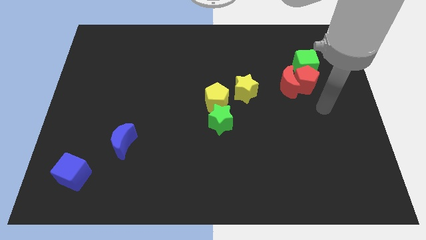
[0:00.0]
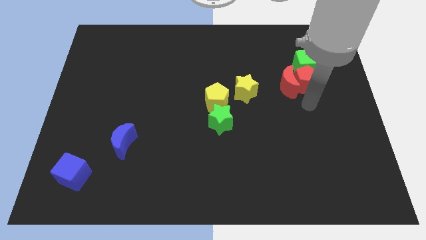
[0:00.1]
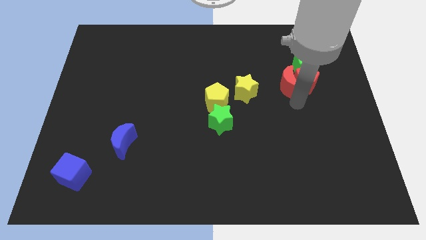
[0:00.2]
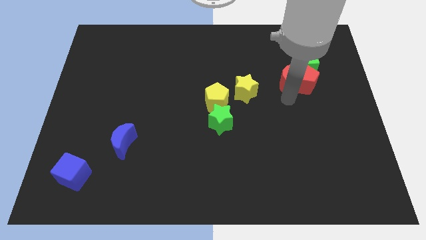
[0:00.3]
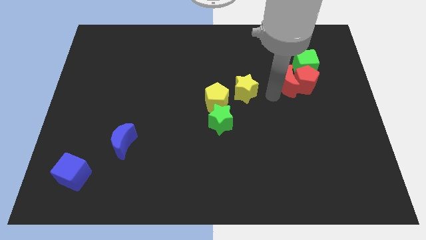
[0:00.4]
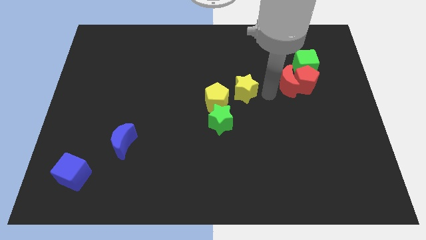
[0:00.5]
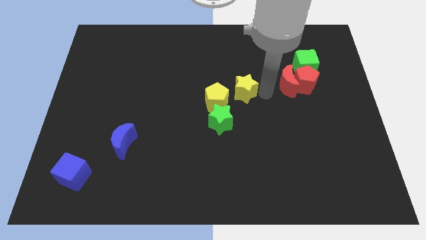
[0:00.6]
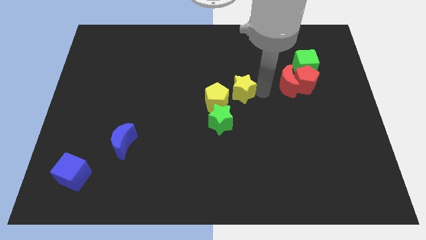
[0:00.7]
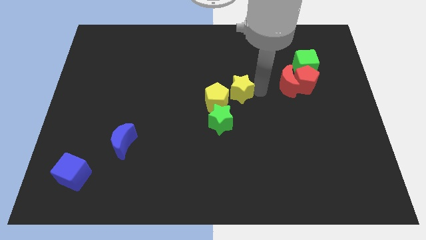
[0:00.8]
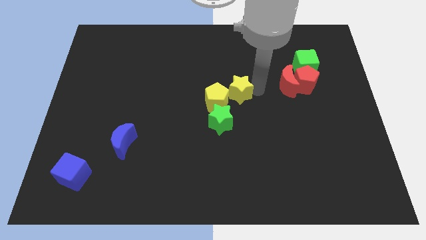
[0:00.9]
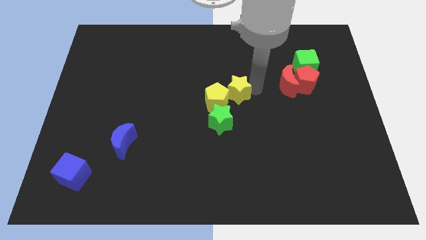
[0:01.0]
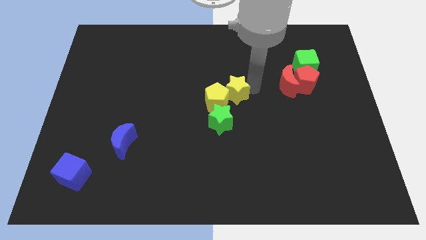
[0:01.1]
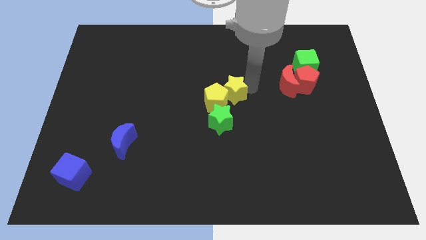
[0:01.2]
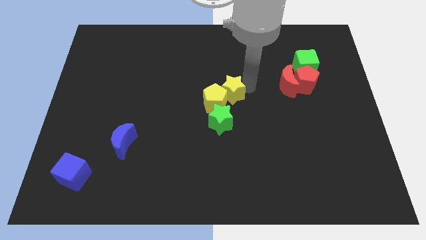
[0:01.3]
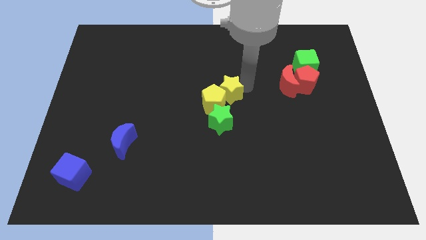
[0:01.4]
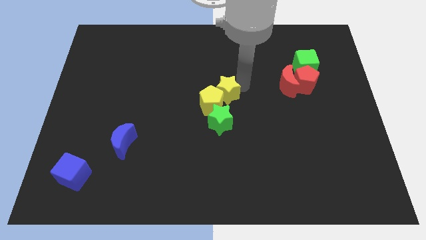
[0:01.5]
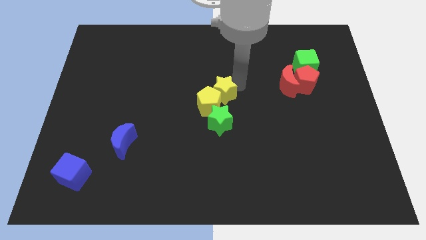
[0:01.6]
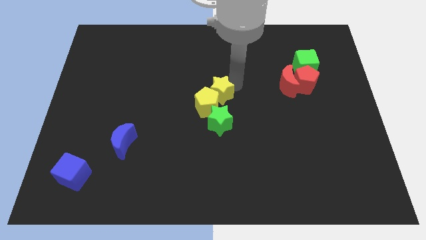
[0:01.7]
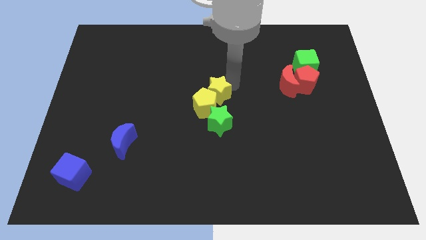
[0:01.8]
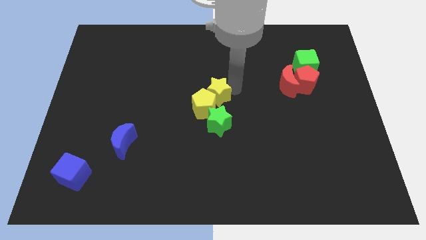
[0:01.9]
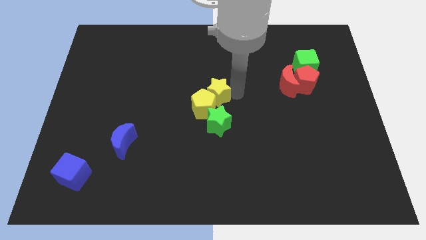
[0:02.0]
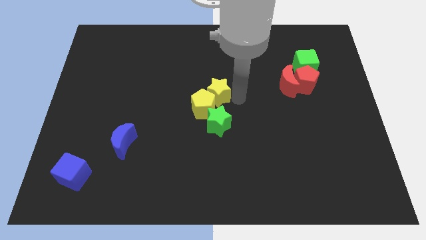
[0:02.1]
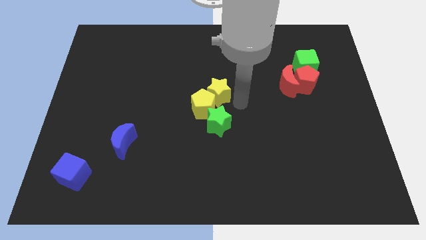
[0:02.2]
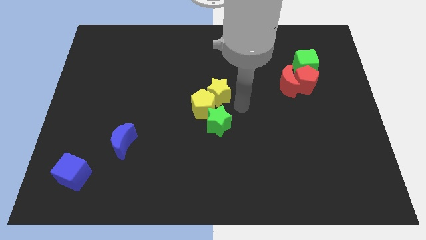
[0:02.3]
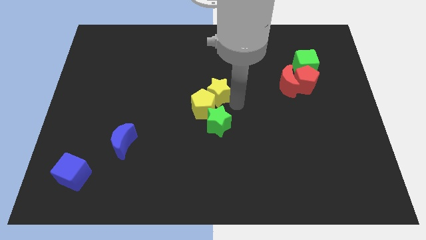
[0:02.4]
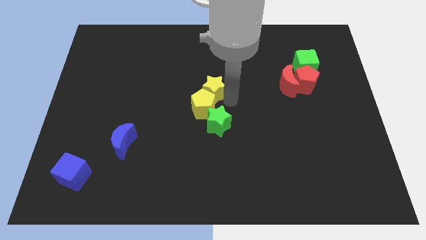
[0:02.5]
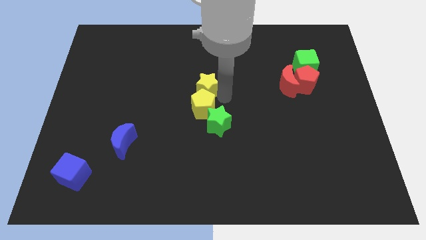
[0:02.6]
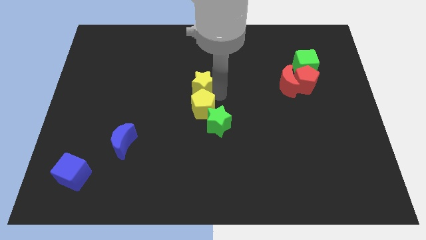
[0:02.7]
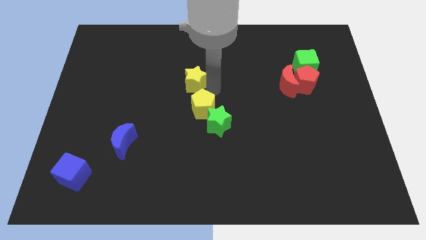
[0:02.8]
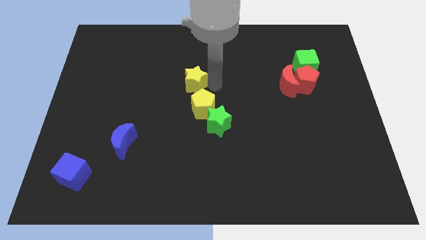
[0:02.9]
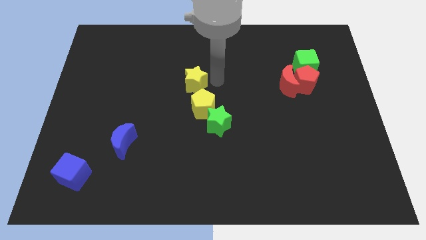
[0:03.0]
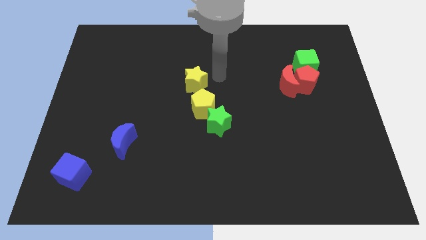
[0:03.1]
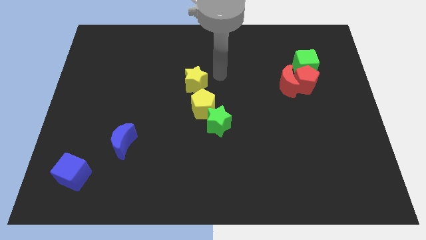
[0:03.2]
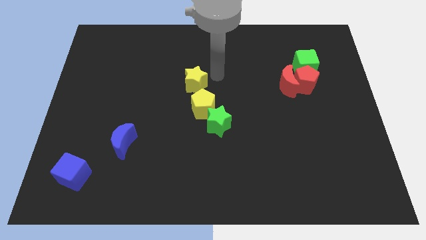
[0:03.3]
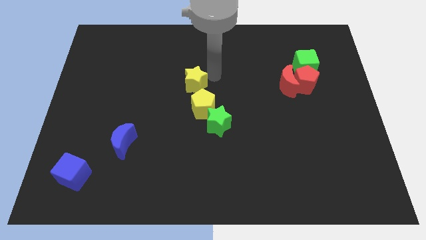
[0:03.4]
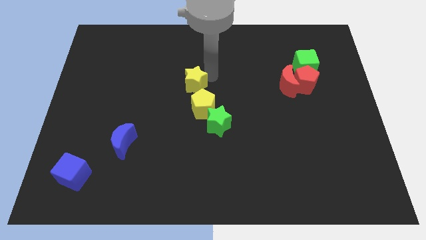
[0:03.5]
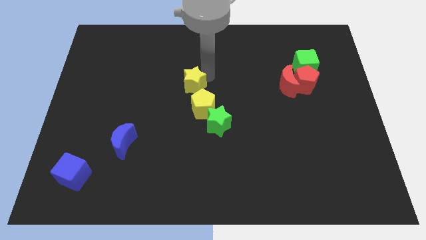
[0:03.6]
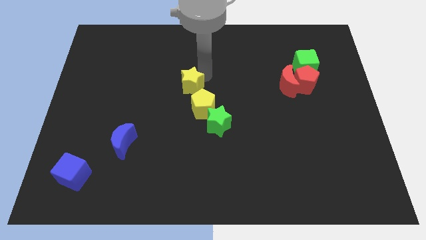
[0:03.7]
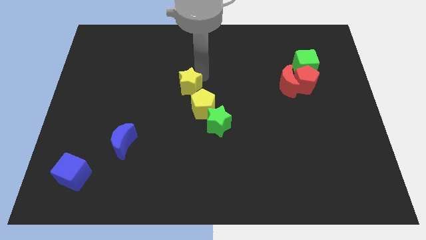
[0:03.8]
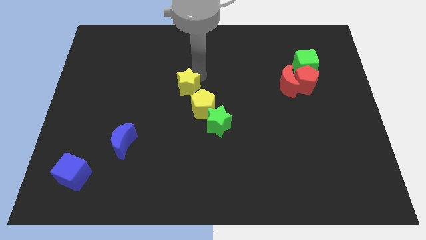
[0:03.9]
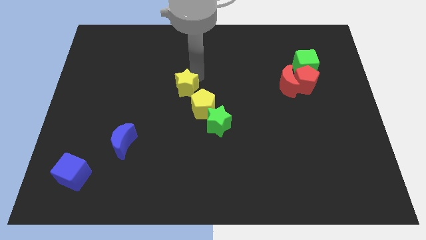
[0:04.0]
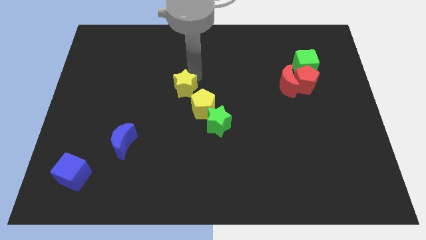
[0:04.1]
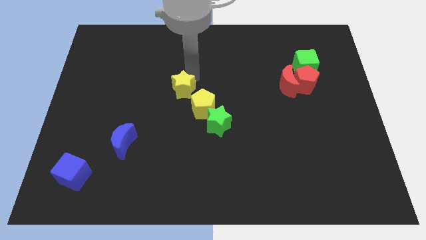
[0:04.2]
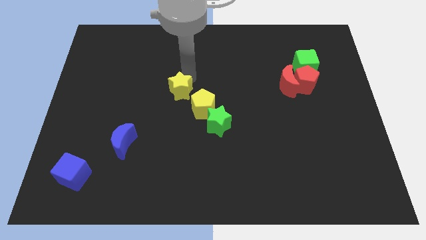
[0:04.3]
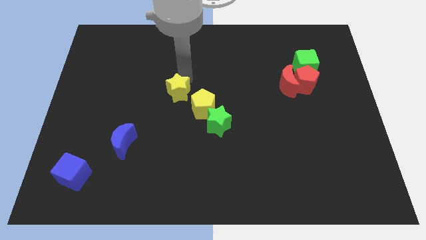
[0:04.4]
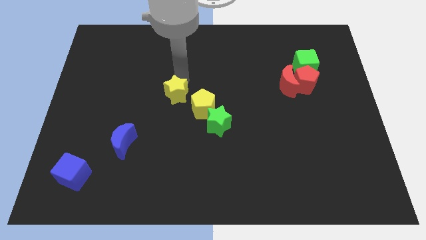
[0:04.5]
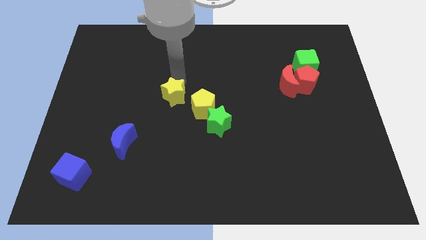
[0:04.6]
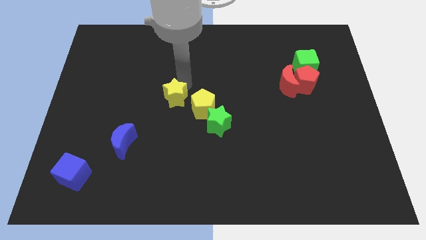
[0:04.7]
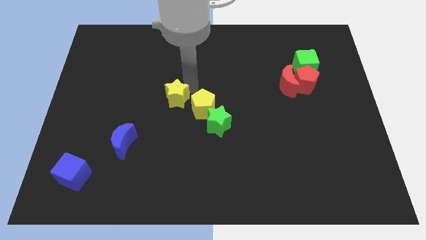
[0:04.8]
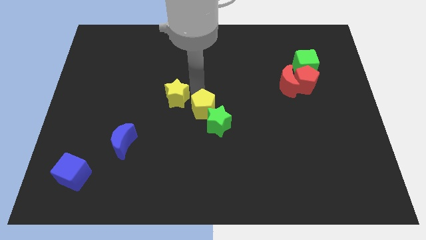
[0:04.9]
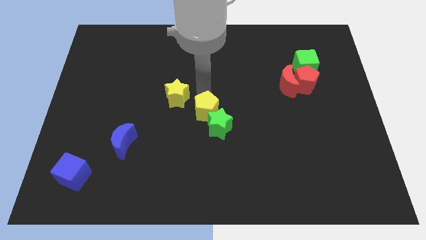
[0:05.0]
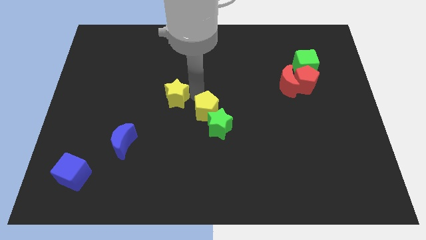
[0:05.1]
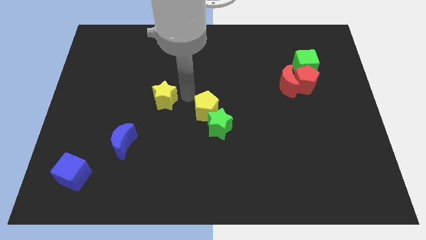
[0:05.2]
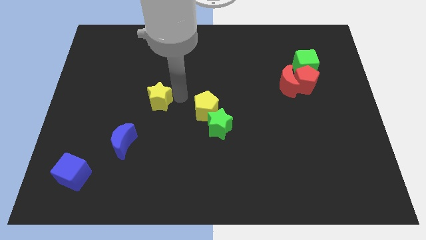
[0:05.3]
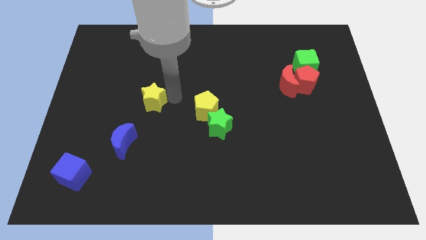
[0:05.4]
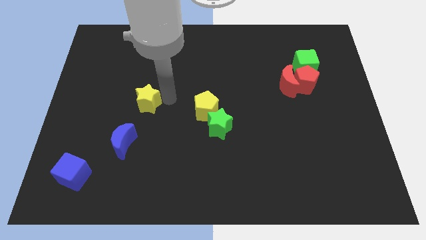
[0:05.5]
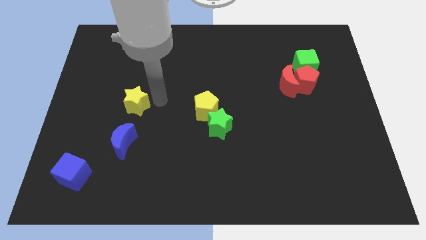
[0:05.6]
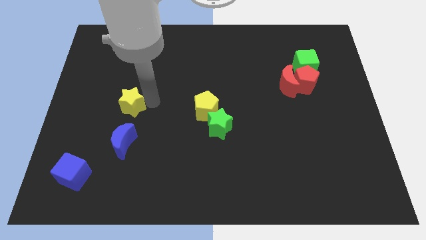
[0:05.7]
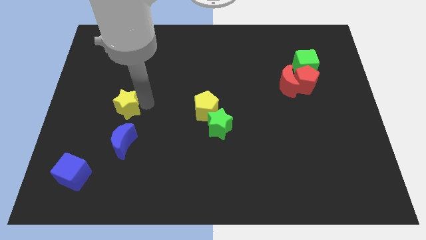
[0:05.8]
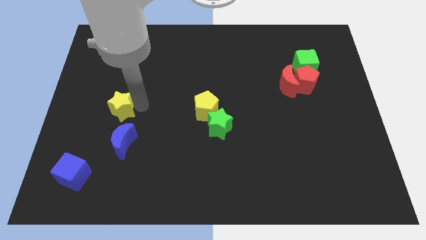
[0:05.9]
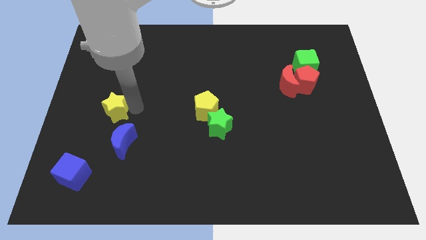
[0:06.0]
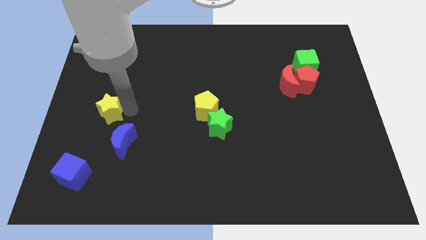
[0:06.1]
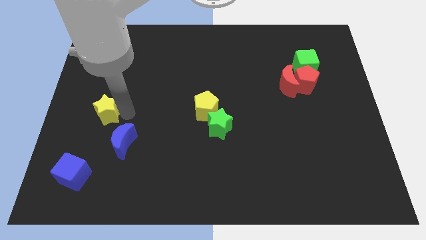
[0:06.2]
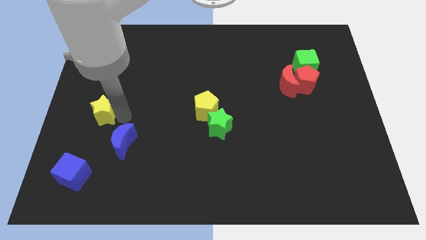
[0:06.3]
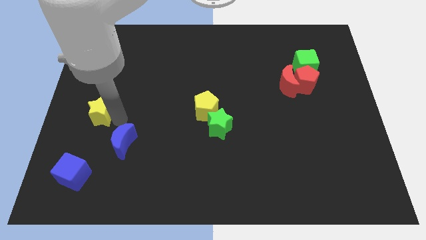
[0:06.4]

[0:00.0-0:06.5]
put the yellow star to the center left
